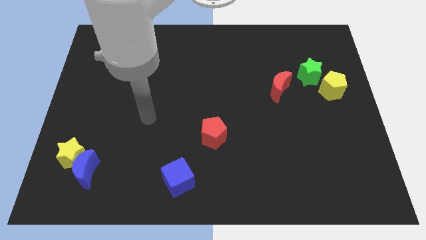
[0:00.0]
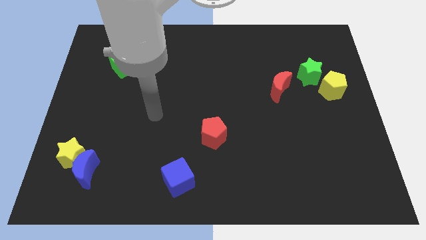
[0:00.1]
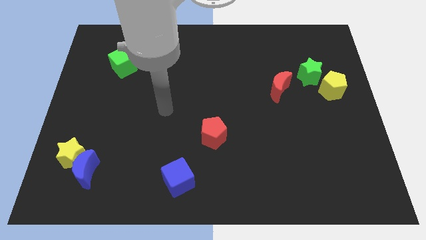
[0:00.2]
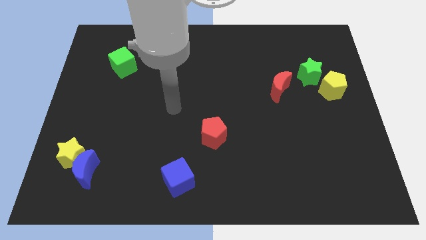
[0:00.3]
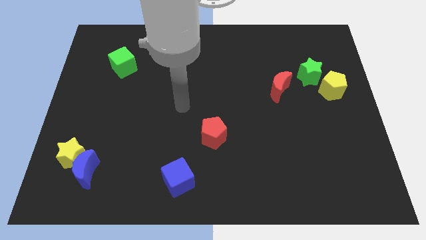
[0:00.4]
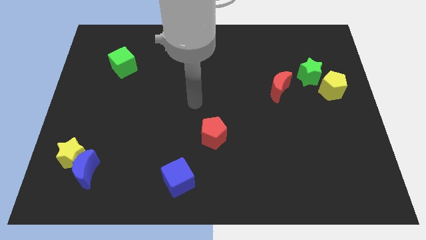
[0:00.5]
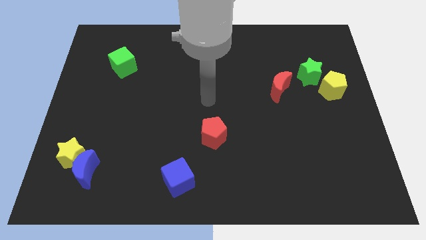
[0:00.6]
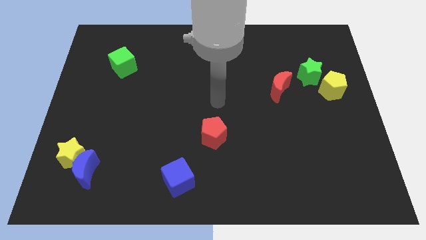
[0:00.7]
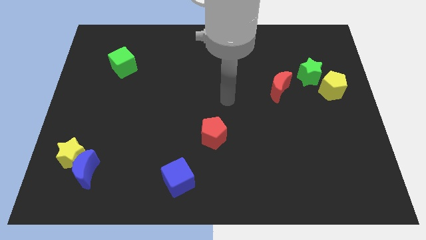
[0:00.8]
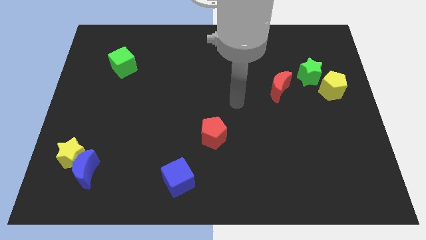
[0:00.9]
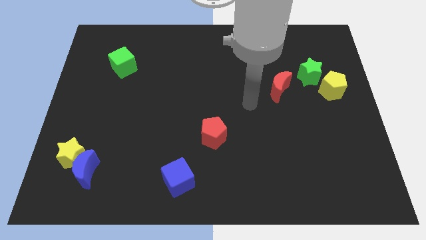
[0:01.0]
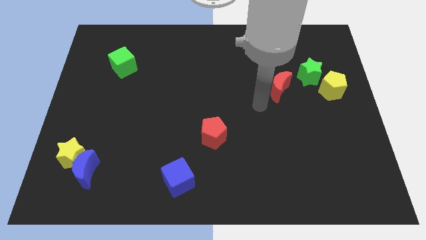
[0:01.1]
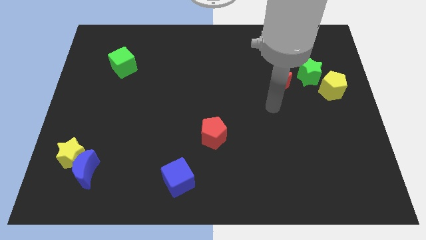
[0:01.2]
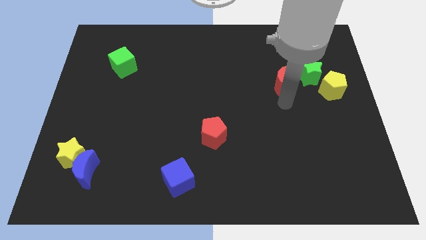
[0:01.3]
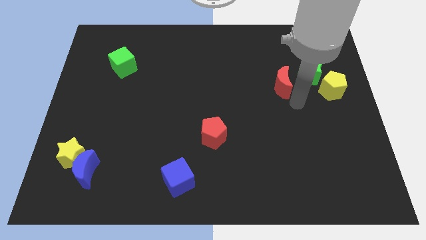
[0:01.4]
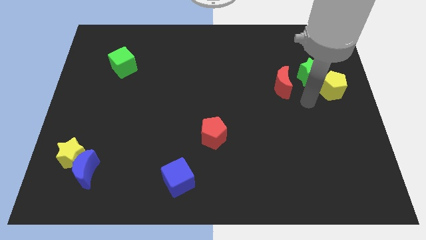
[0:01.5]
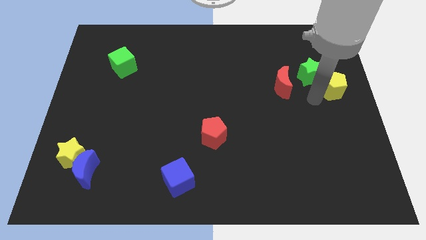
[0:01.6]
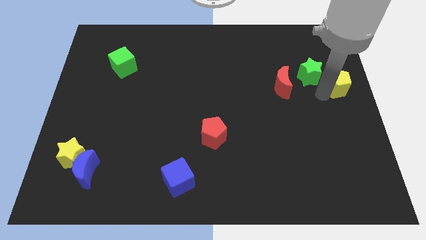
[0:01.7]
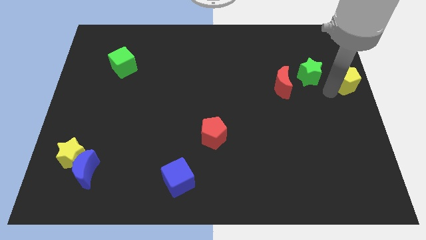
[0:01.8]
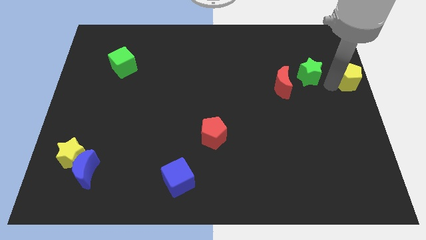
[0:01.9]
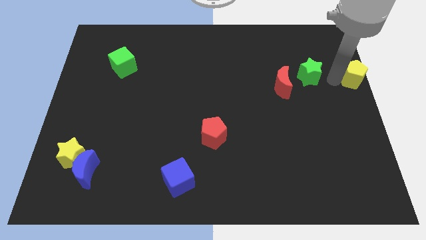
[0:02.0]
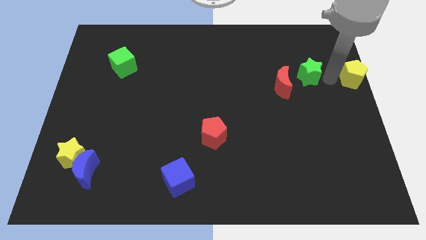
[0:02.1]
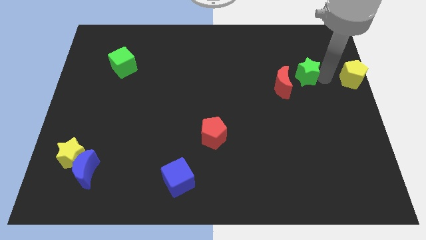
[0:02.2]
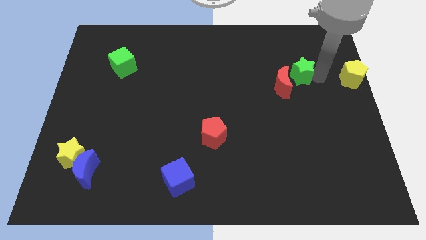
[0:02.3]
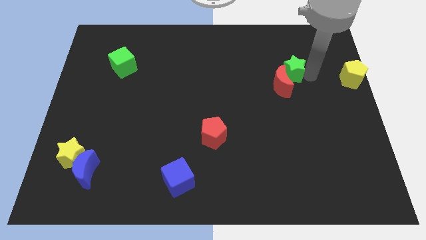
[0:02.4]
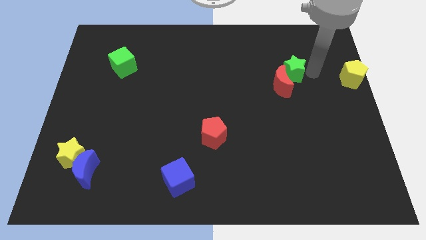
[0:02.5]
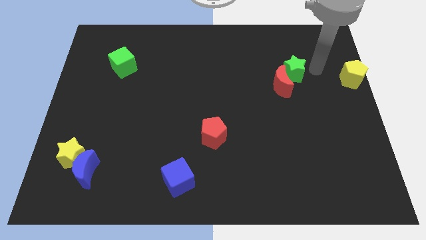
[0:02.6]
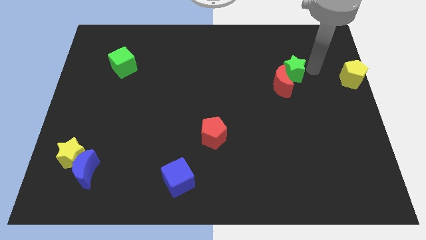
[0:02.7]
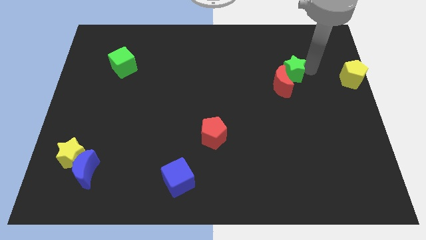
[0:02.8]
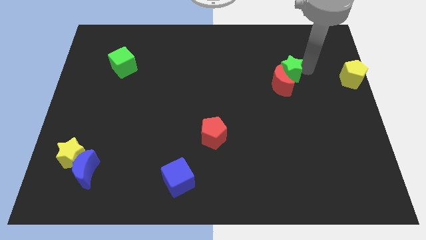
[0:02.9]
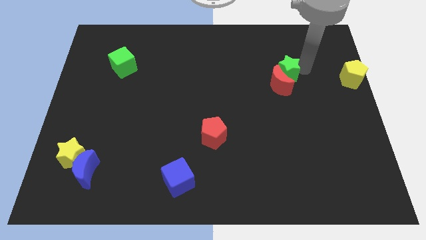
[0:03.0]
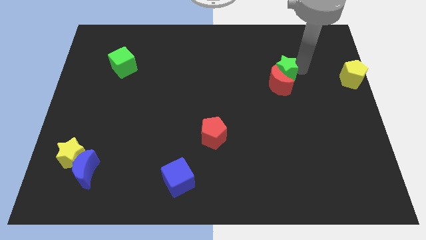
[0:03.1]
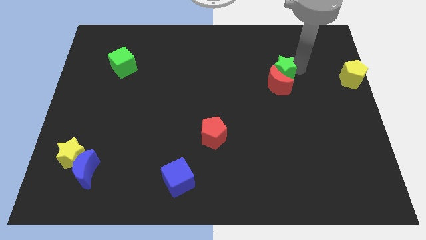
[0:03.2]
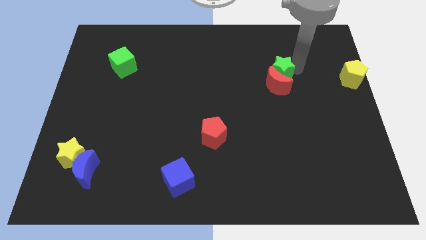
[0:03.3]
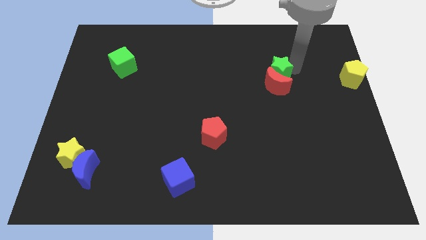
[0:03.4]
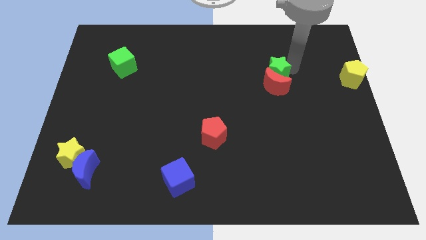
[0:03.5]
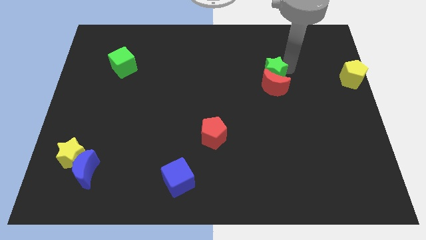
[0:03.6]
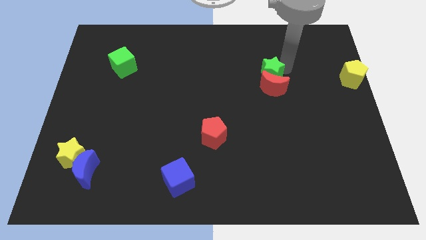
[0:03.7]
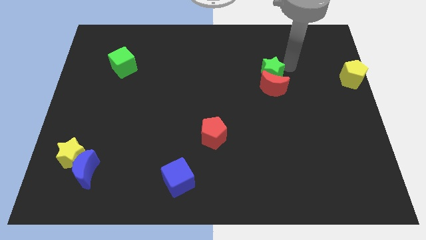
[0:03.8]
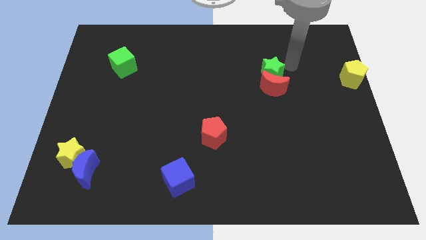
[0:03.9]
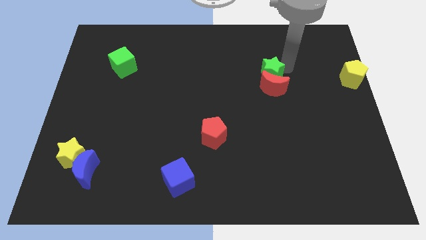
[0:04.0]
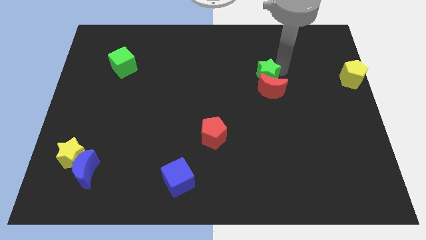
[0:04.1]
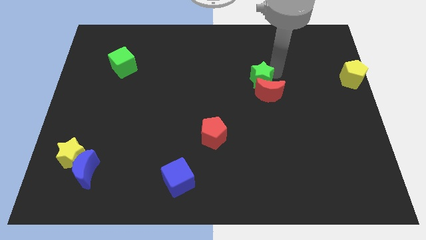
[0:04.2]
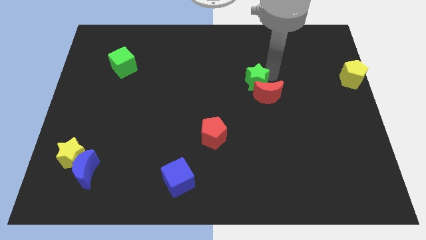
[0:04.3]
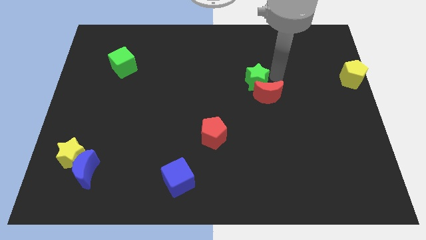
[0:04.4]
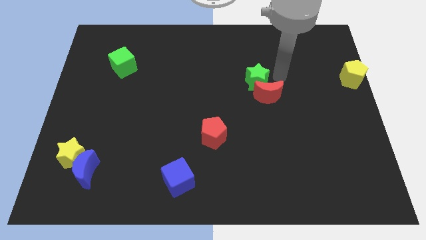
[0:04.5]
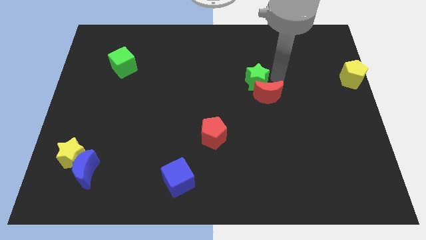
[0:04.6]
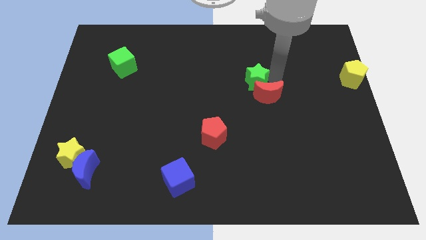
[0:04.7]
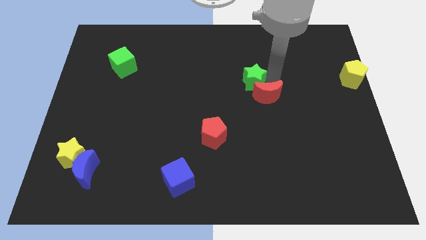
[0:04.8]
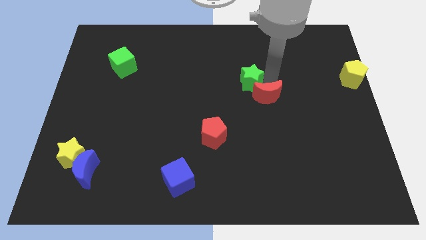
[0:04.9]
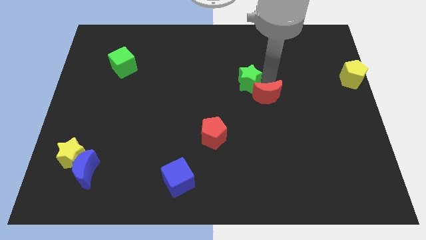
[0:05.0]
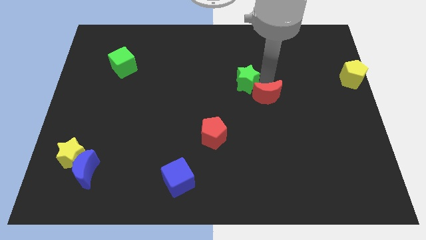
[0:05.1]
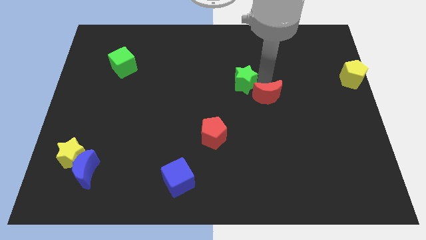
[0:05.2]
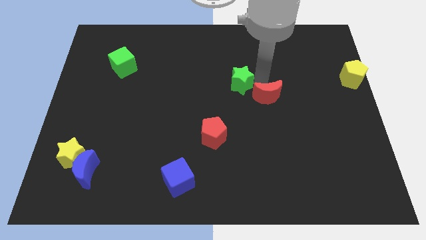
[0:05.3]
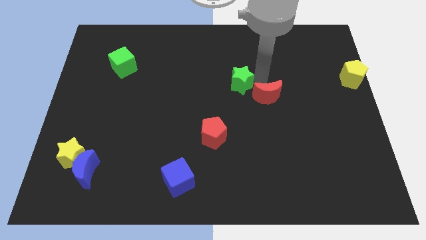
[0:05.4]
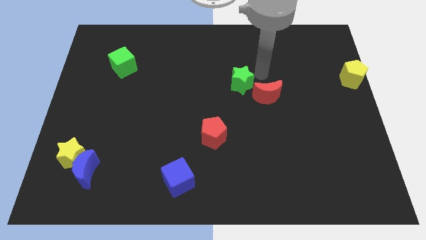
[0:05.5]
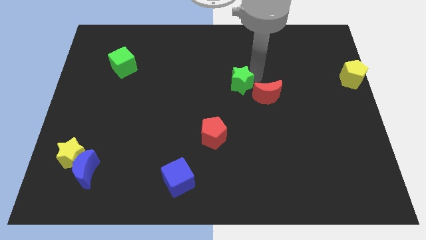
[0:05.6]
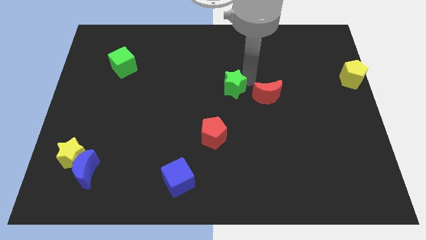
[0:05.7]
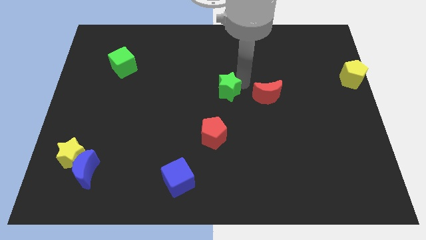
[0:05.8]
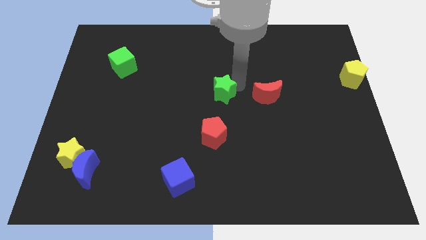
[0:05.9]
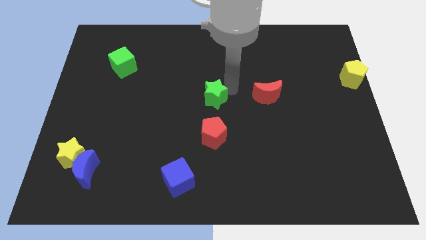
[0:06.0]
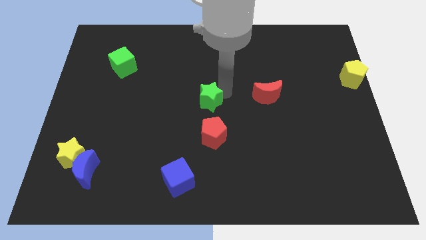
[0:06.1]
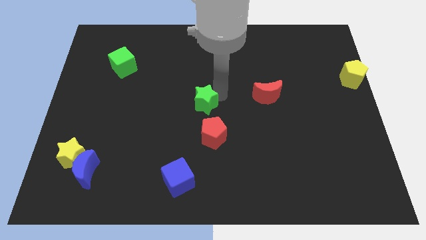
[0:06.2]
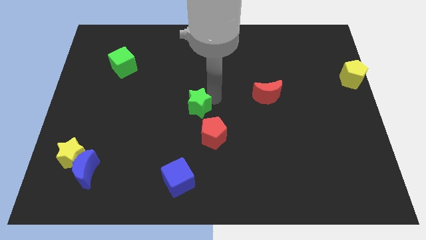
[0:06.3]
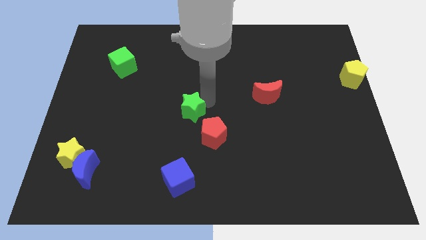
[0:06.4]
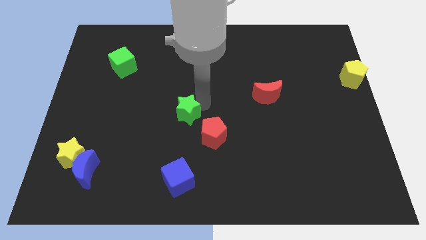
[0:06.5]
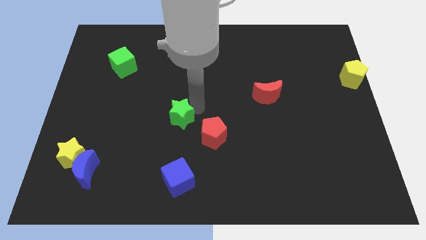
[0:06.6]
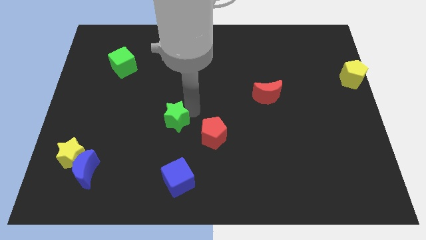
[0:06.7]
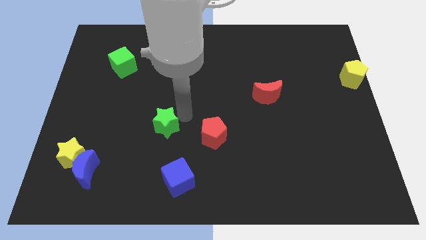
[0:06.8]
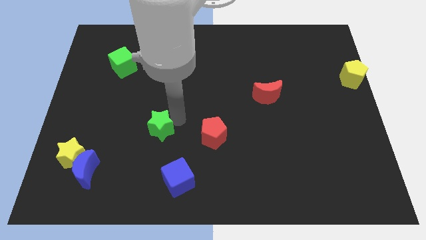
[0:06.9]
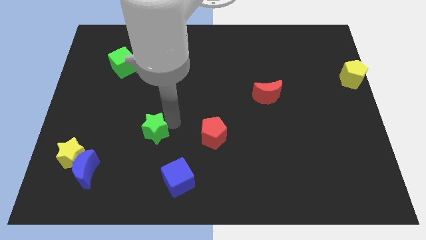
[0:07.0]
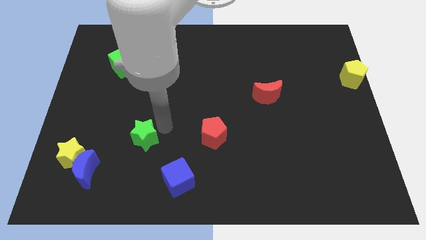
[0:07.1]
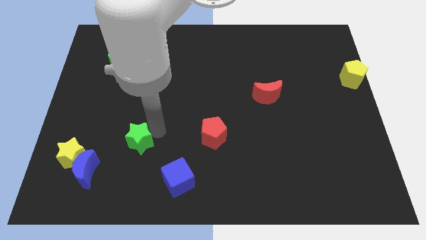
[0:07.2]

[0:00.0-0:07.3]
move the green star diagonally up and to the right of the blue moon
